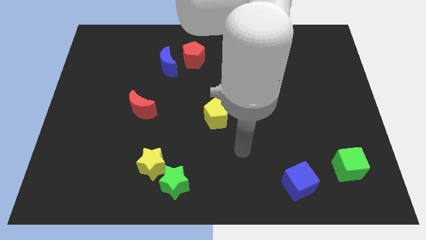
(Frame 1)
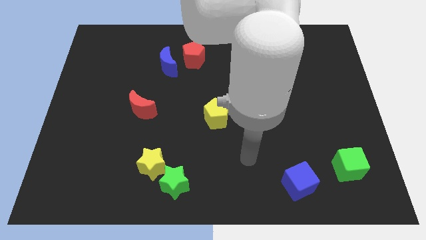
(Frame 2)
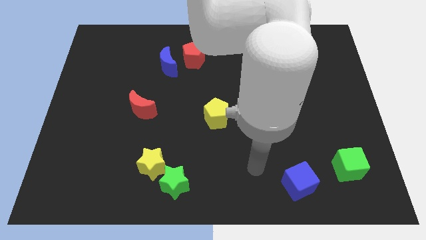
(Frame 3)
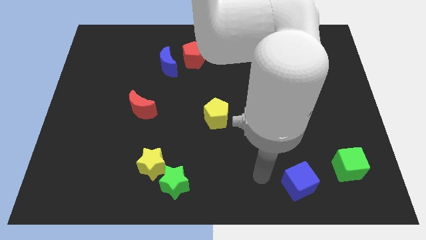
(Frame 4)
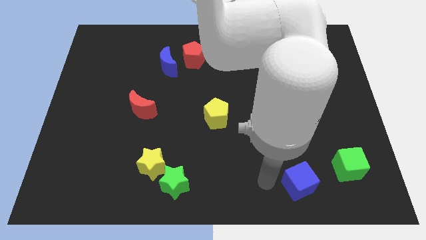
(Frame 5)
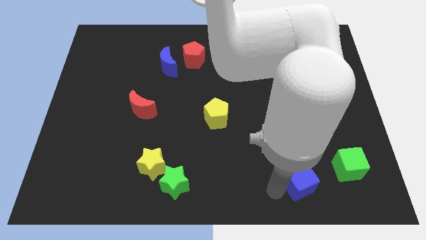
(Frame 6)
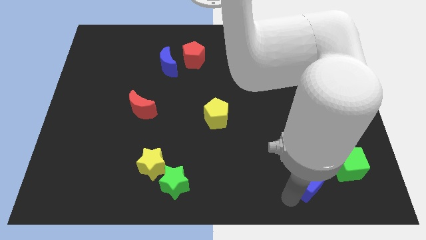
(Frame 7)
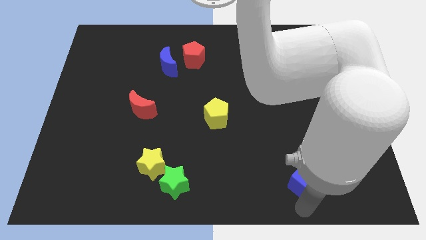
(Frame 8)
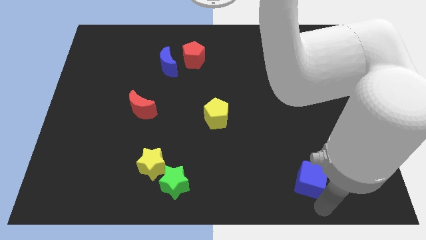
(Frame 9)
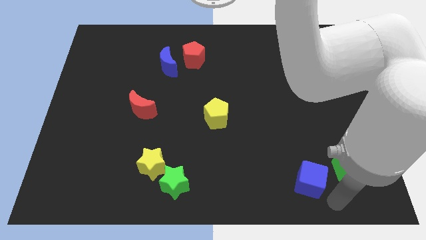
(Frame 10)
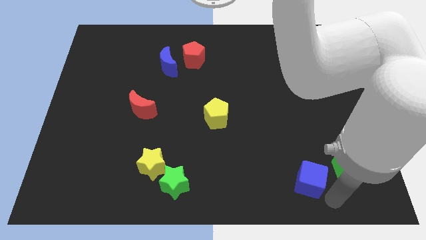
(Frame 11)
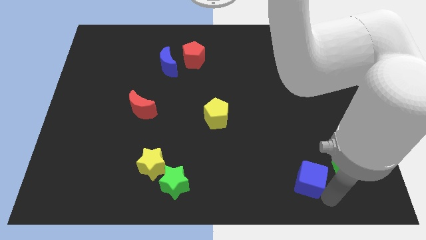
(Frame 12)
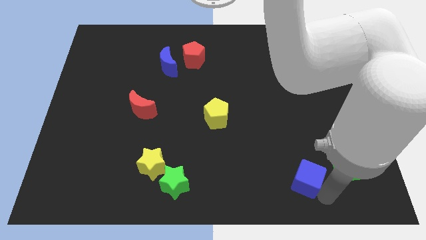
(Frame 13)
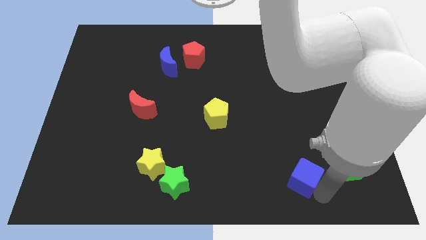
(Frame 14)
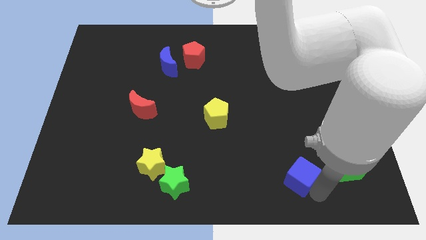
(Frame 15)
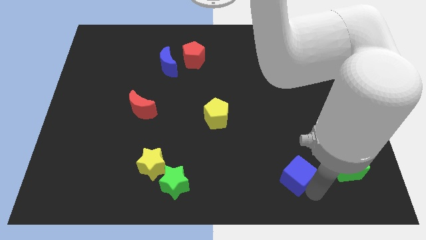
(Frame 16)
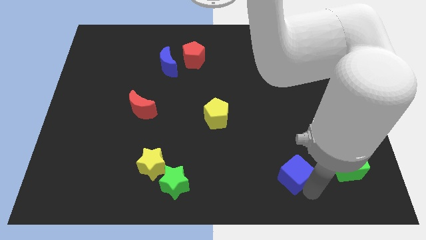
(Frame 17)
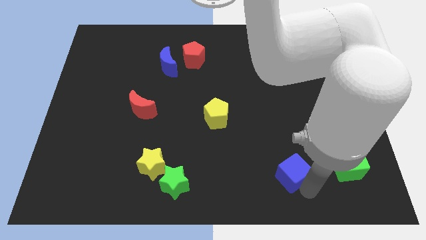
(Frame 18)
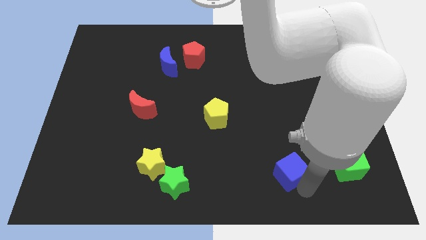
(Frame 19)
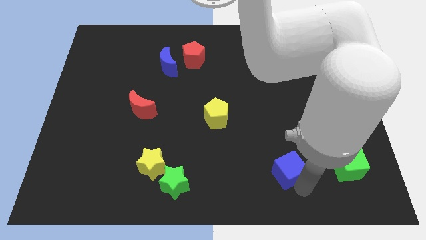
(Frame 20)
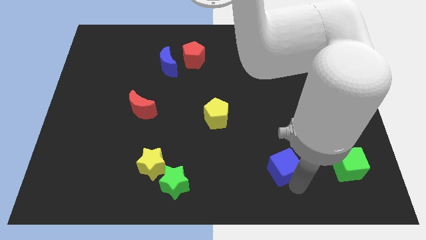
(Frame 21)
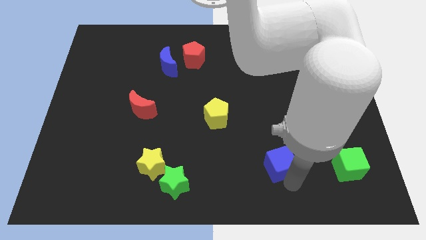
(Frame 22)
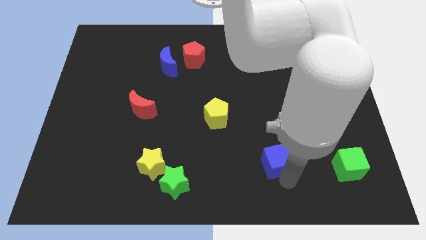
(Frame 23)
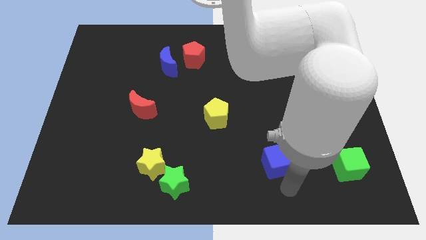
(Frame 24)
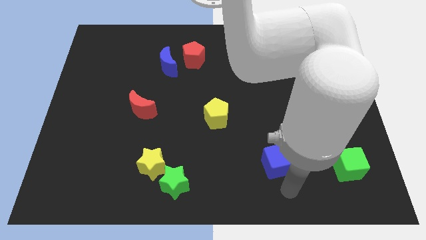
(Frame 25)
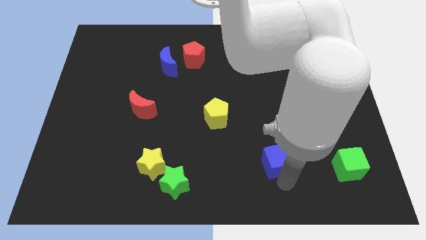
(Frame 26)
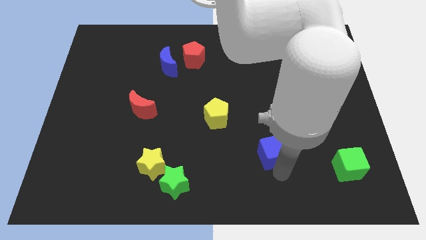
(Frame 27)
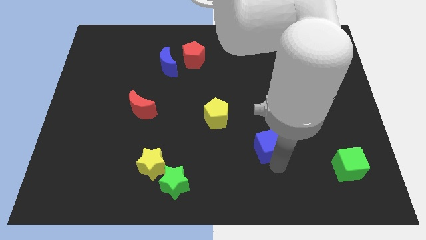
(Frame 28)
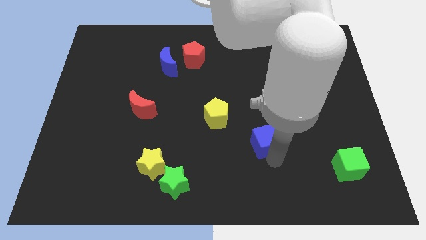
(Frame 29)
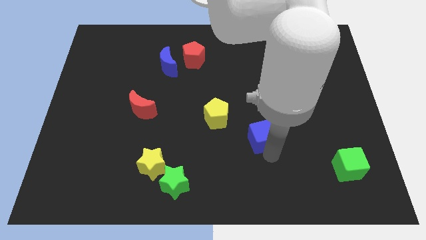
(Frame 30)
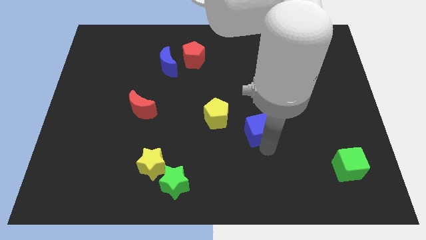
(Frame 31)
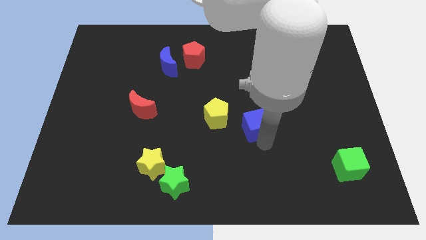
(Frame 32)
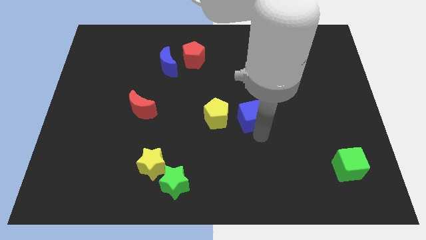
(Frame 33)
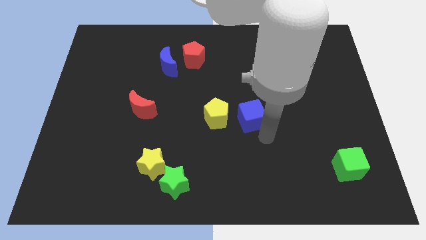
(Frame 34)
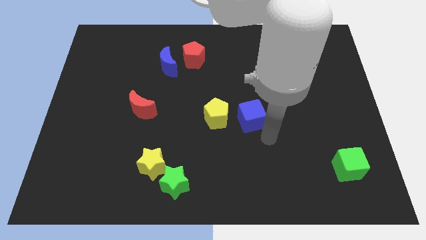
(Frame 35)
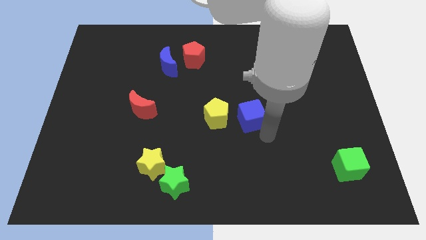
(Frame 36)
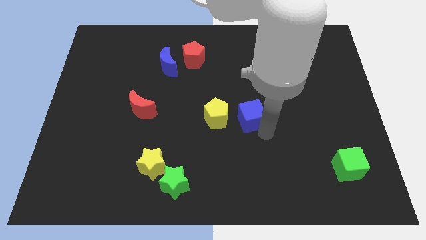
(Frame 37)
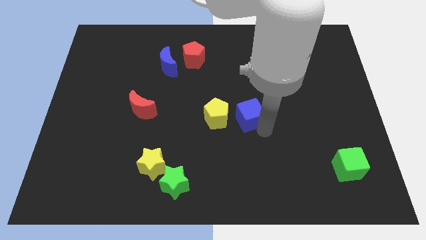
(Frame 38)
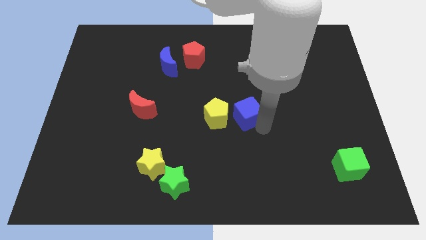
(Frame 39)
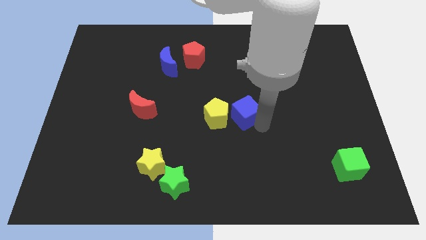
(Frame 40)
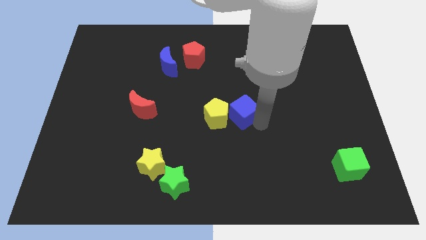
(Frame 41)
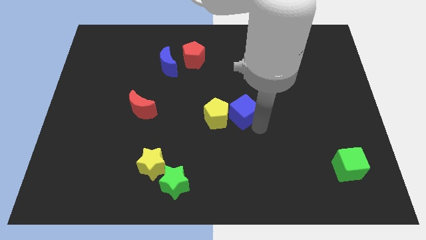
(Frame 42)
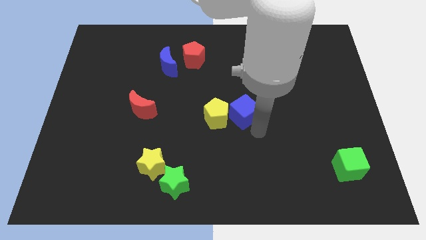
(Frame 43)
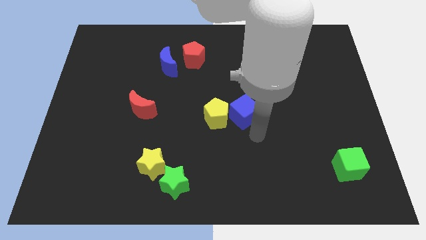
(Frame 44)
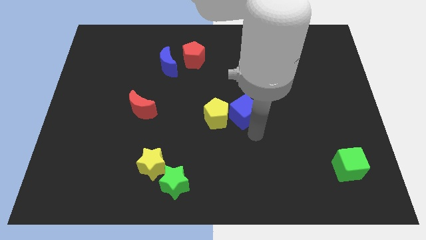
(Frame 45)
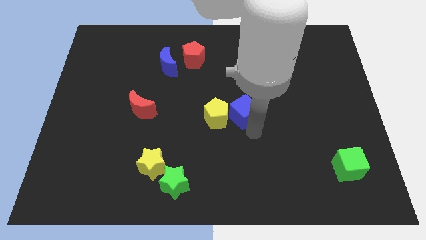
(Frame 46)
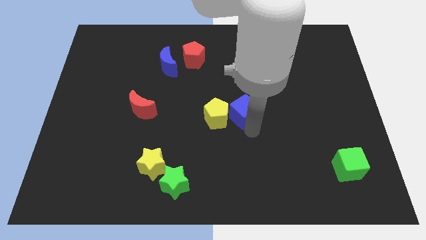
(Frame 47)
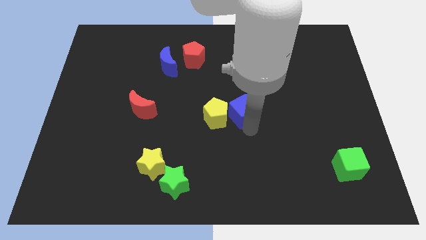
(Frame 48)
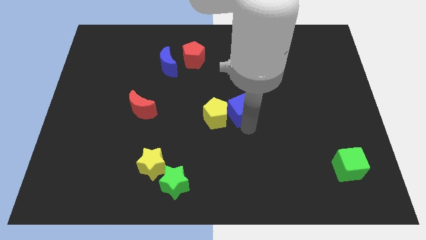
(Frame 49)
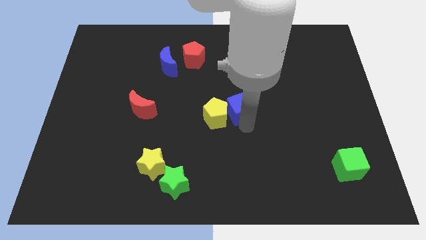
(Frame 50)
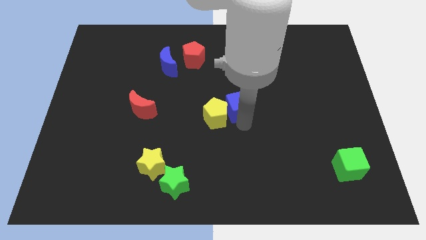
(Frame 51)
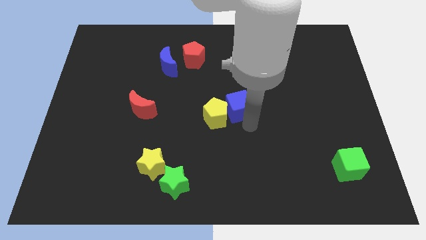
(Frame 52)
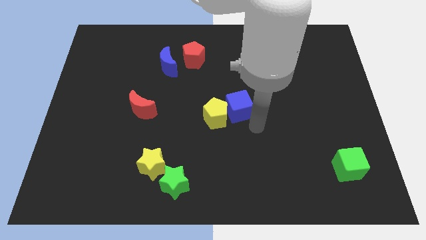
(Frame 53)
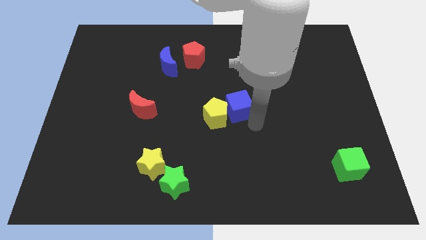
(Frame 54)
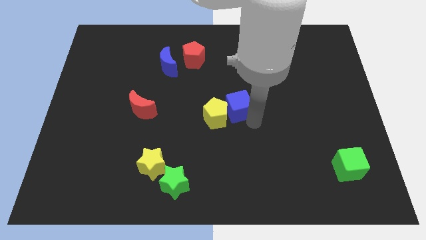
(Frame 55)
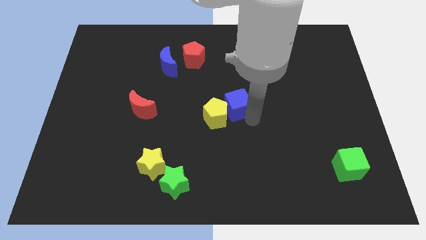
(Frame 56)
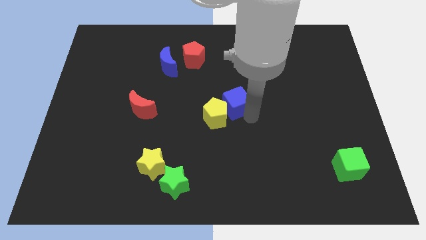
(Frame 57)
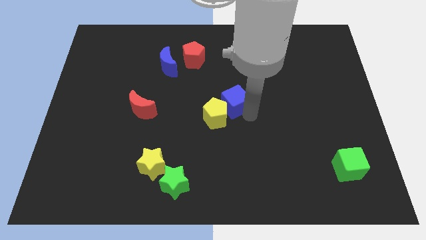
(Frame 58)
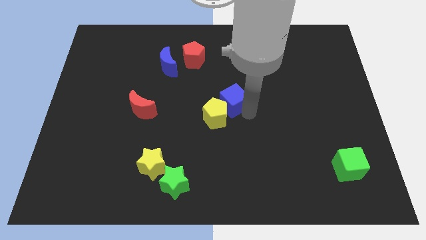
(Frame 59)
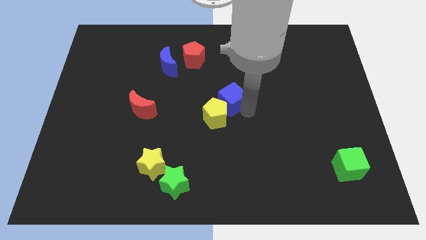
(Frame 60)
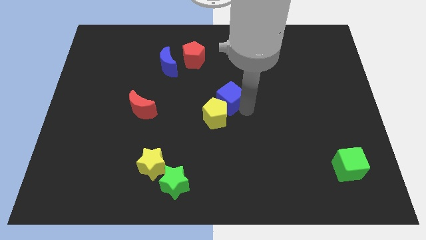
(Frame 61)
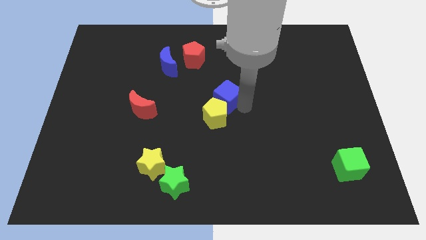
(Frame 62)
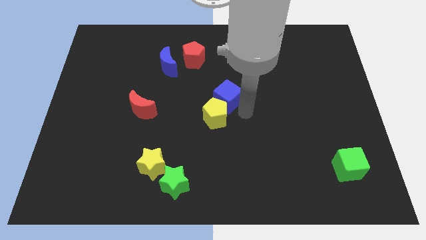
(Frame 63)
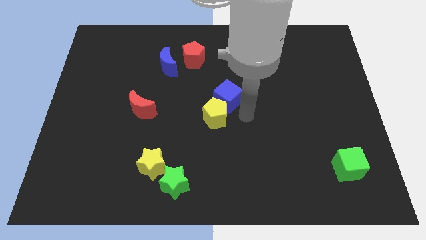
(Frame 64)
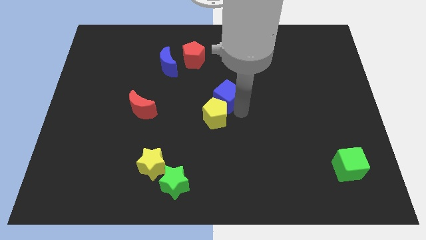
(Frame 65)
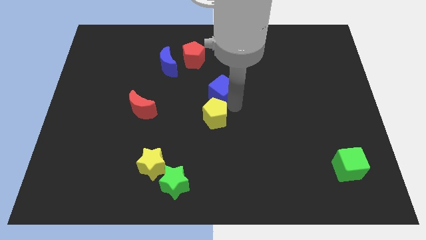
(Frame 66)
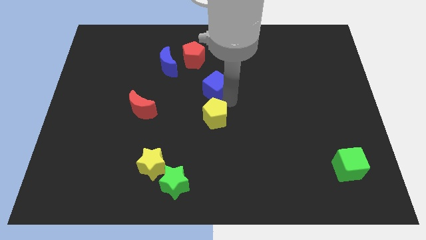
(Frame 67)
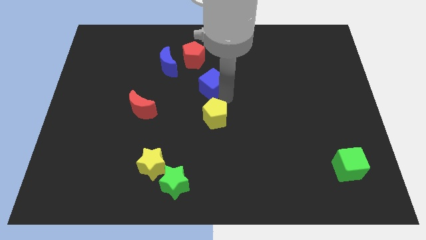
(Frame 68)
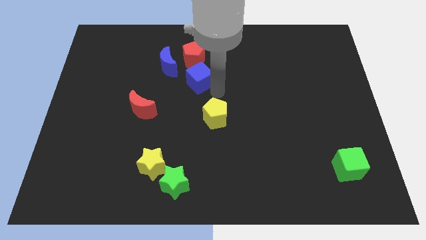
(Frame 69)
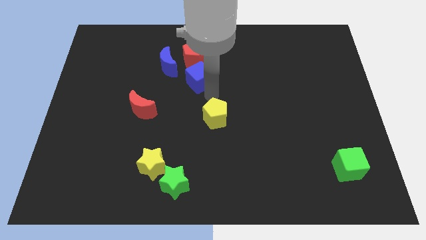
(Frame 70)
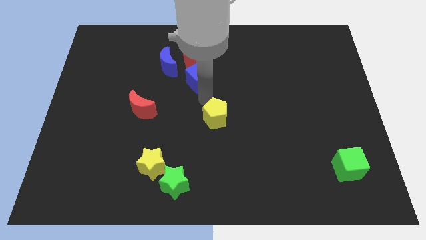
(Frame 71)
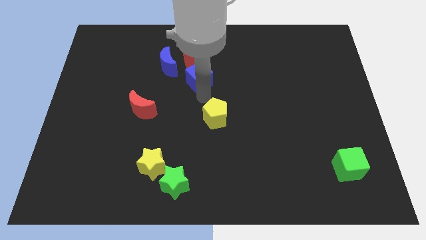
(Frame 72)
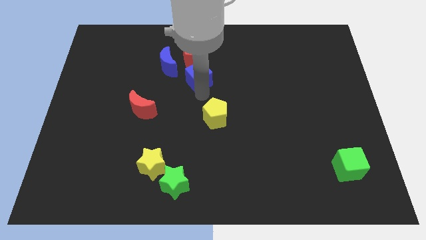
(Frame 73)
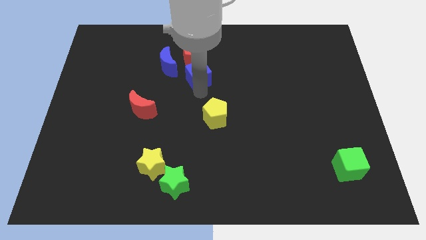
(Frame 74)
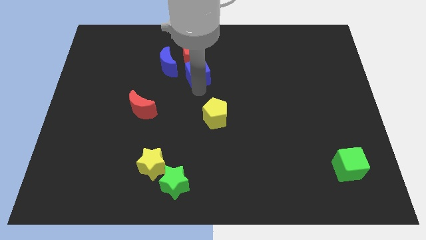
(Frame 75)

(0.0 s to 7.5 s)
put the blue cube next to the red pentagon
